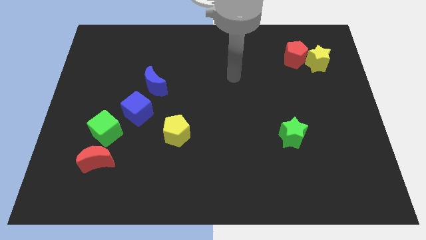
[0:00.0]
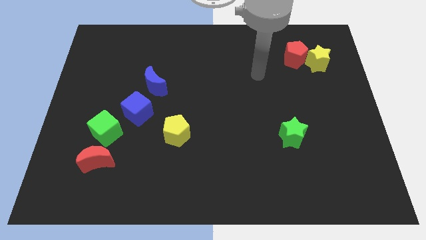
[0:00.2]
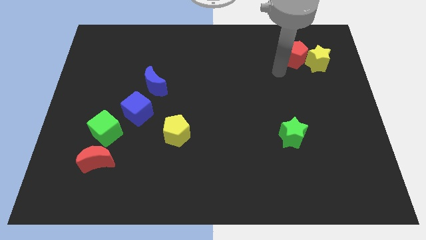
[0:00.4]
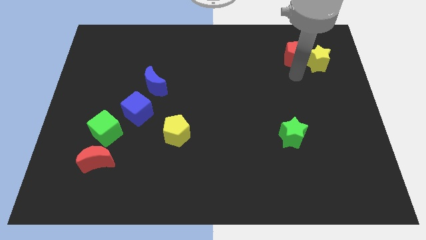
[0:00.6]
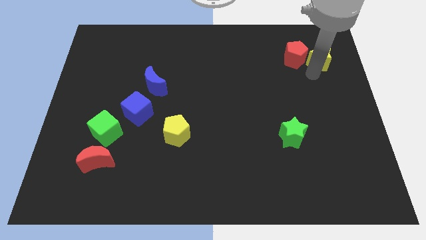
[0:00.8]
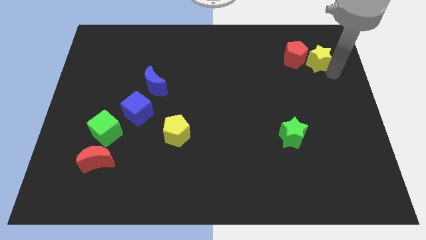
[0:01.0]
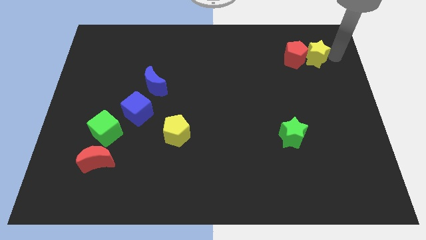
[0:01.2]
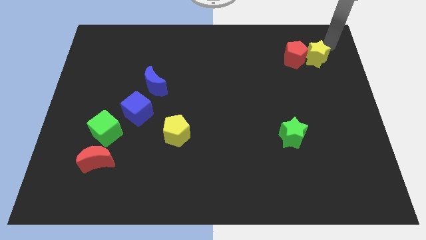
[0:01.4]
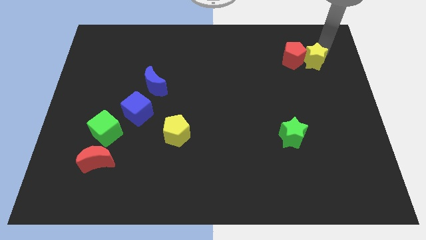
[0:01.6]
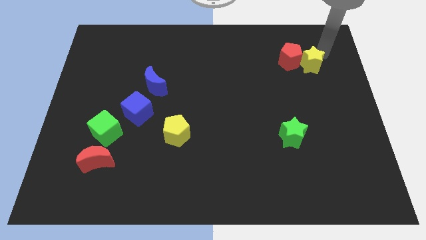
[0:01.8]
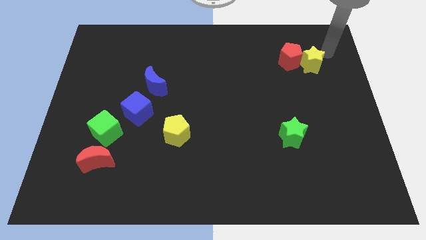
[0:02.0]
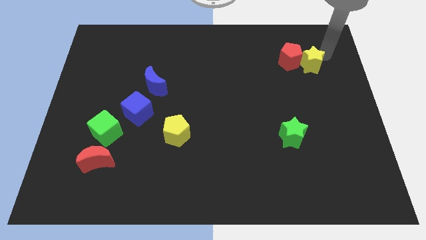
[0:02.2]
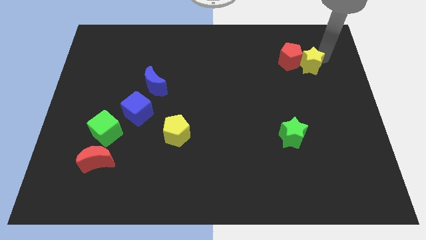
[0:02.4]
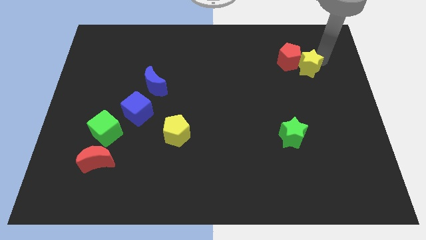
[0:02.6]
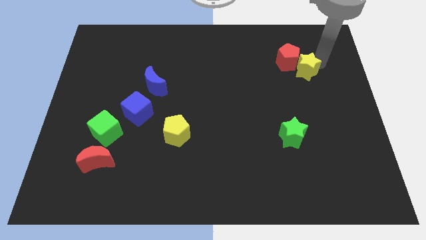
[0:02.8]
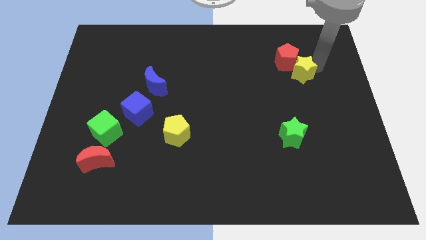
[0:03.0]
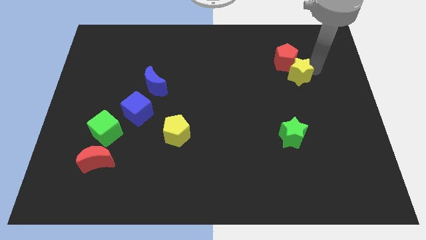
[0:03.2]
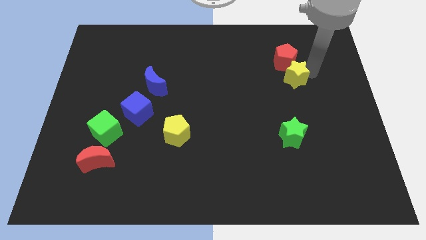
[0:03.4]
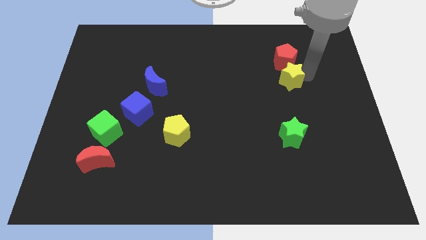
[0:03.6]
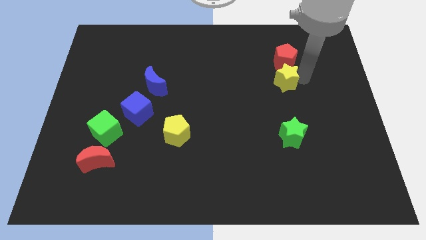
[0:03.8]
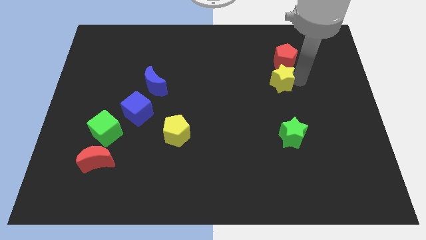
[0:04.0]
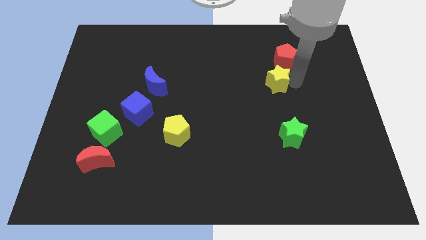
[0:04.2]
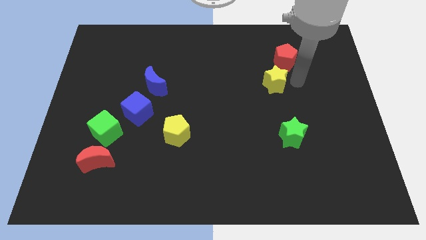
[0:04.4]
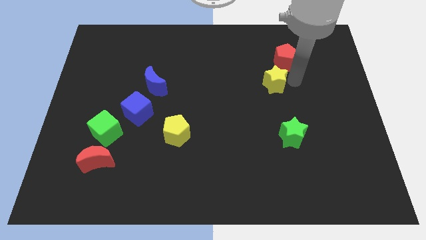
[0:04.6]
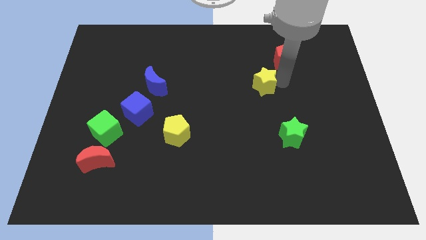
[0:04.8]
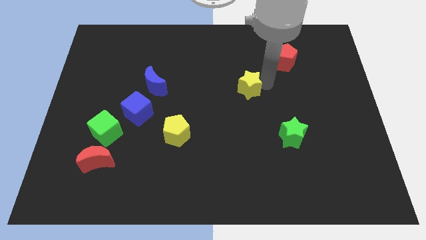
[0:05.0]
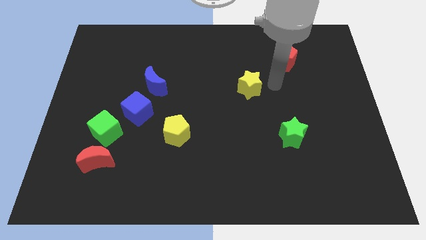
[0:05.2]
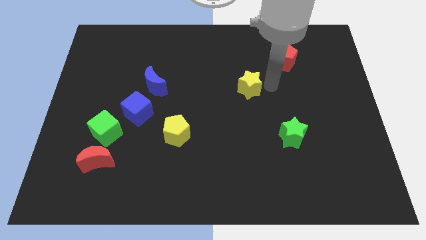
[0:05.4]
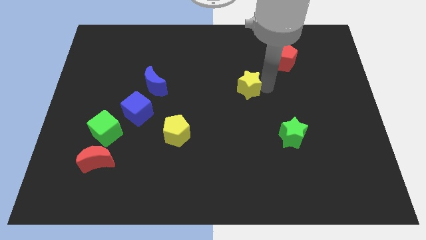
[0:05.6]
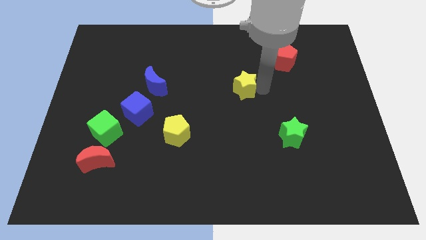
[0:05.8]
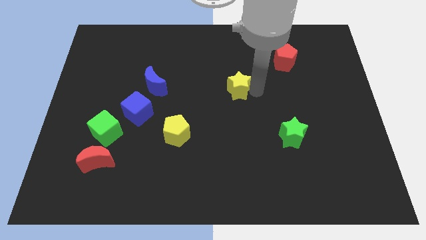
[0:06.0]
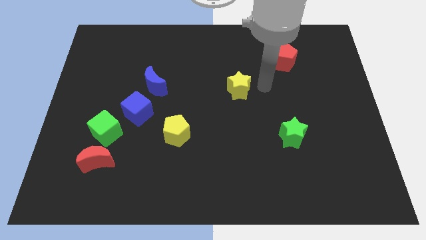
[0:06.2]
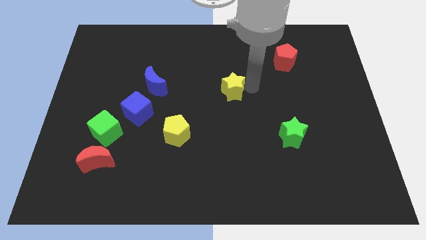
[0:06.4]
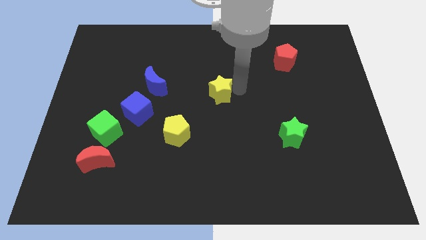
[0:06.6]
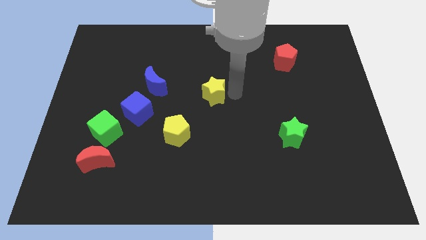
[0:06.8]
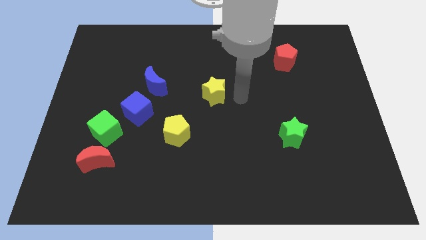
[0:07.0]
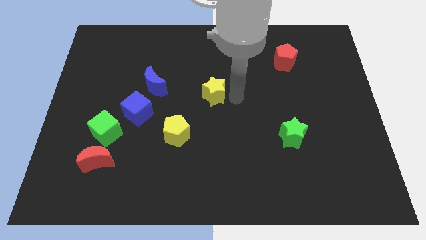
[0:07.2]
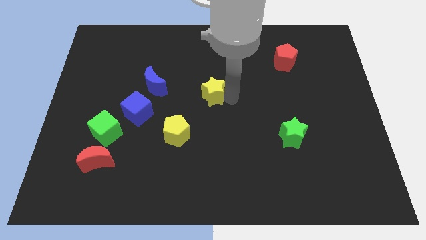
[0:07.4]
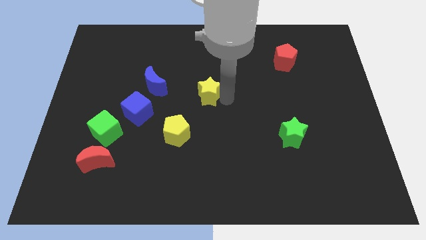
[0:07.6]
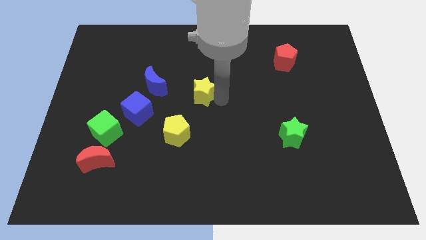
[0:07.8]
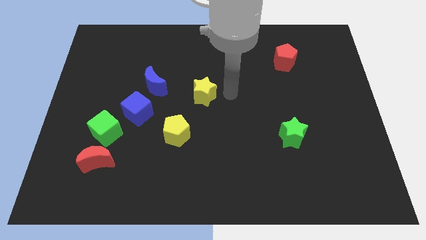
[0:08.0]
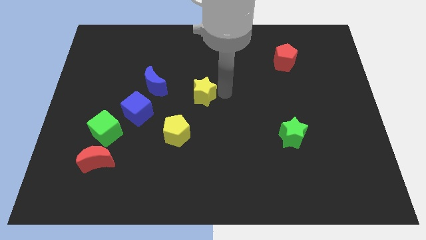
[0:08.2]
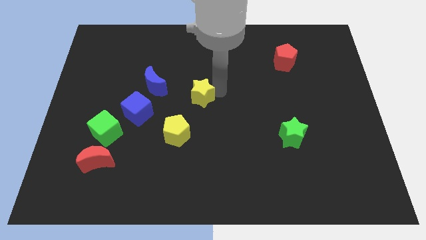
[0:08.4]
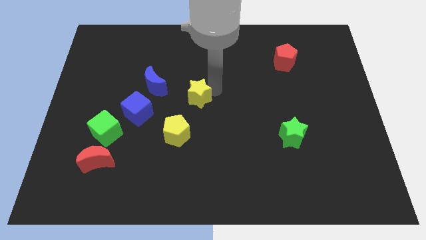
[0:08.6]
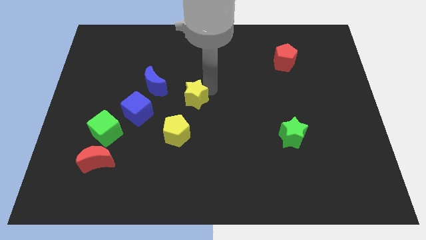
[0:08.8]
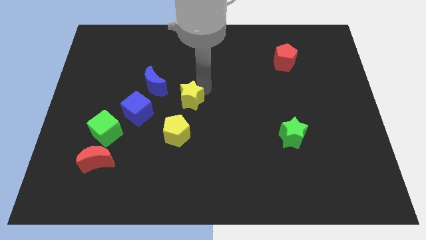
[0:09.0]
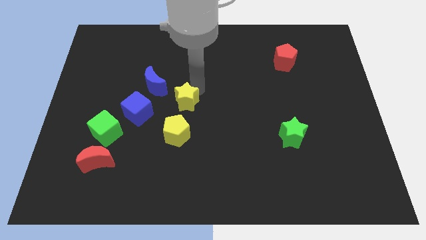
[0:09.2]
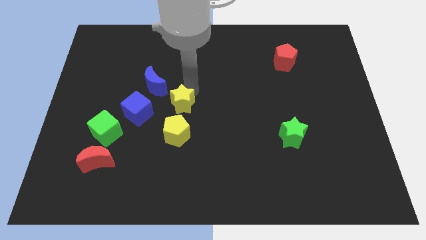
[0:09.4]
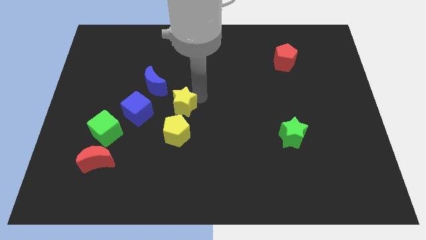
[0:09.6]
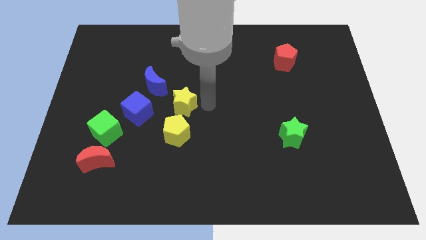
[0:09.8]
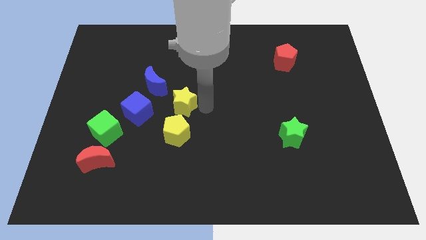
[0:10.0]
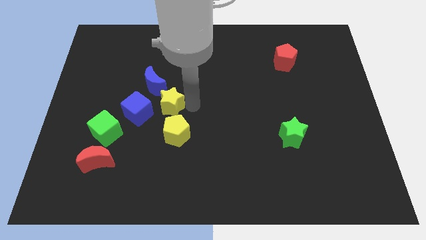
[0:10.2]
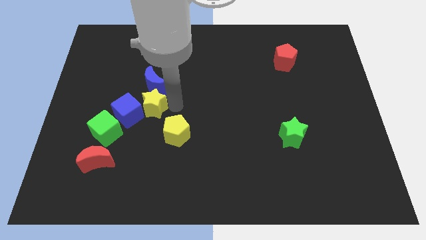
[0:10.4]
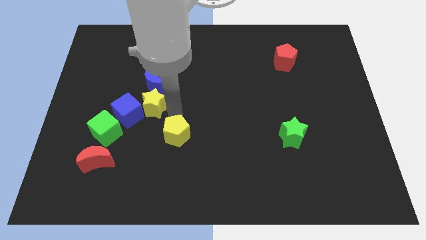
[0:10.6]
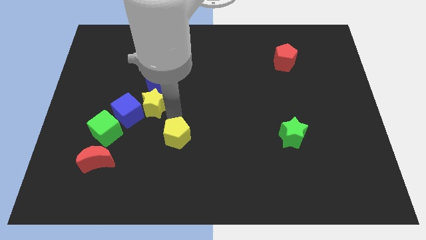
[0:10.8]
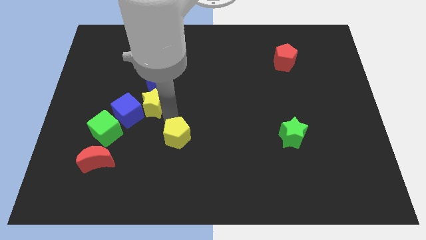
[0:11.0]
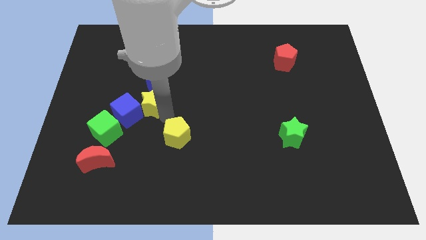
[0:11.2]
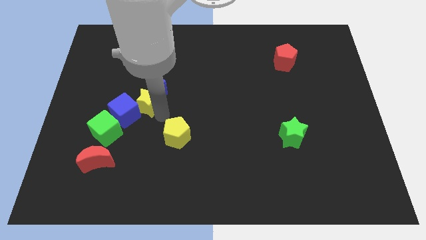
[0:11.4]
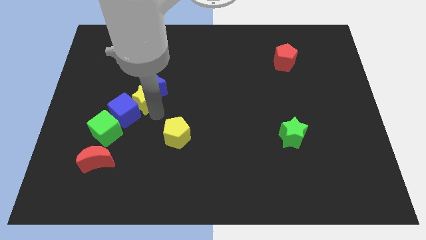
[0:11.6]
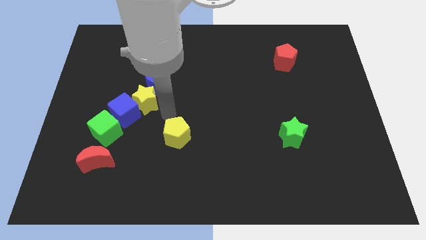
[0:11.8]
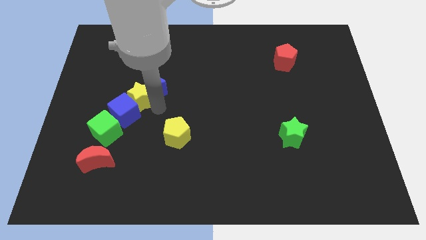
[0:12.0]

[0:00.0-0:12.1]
slide the yellow star just left of the blue moon
